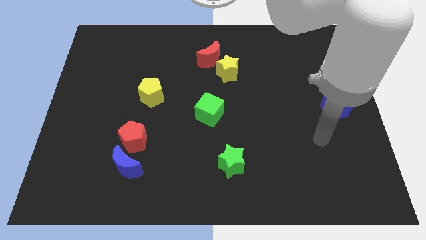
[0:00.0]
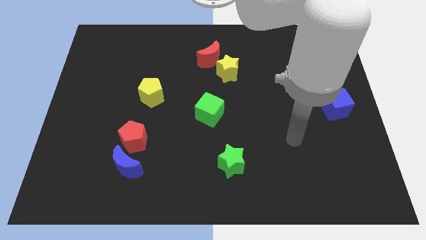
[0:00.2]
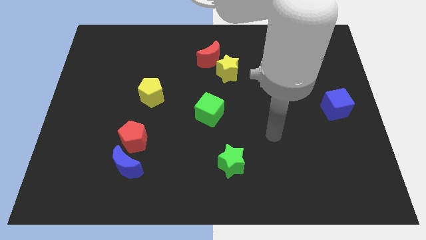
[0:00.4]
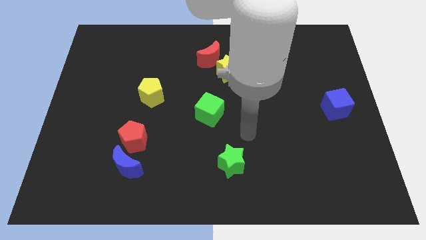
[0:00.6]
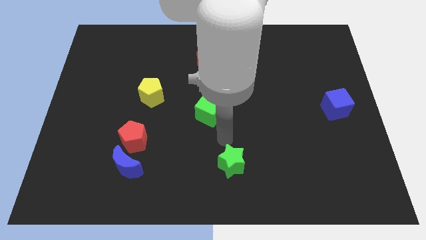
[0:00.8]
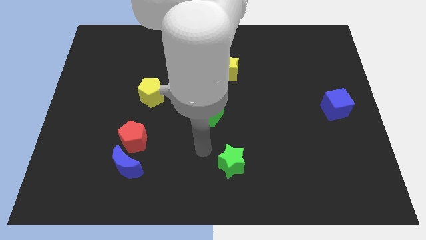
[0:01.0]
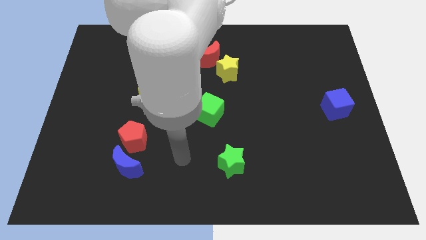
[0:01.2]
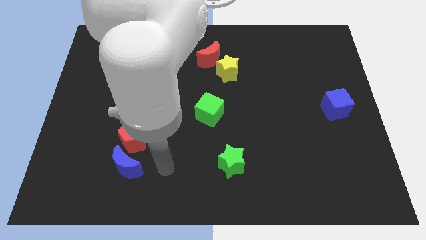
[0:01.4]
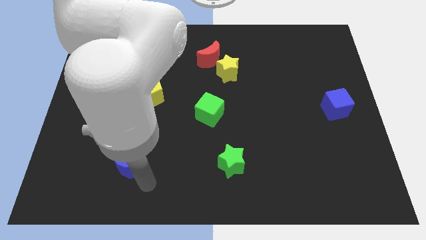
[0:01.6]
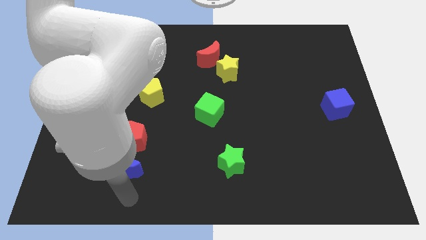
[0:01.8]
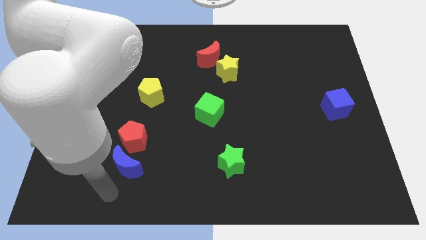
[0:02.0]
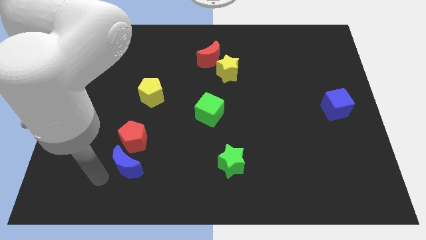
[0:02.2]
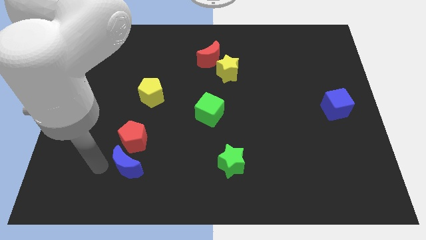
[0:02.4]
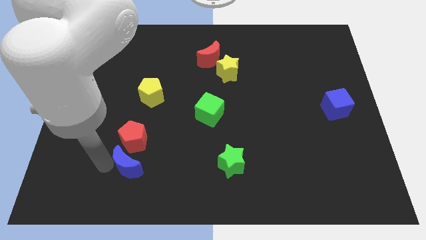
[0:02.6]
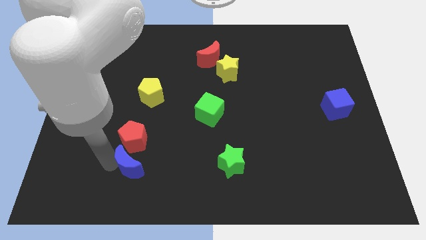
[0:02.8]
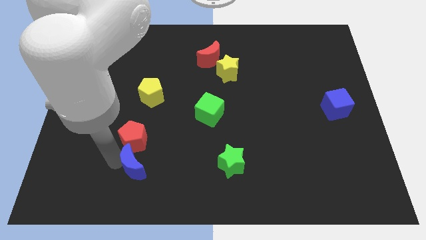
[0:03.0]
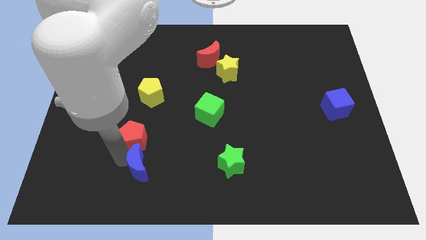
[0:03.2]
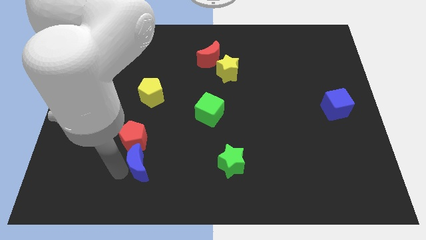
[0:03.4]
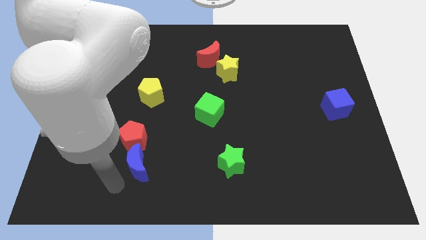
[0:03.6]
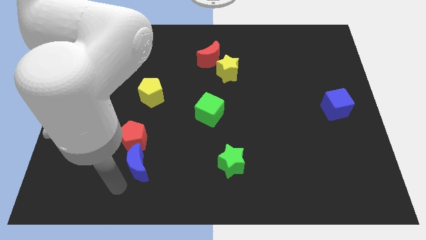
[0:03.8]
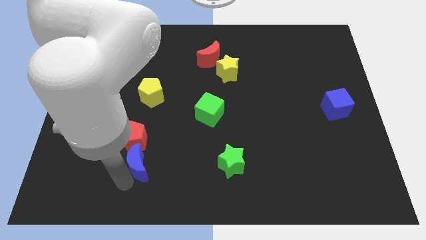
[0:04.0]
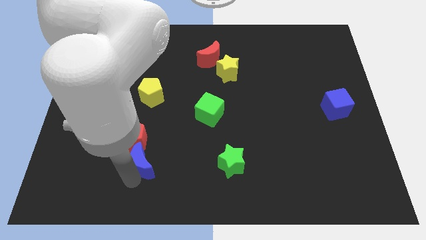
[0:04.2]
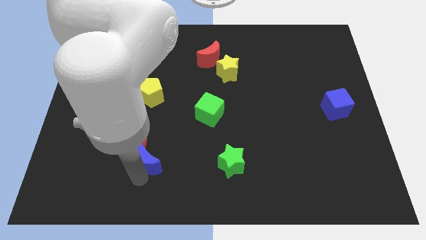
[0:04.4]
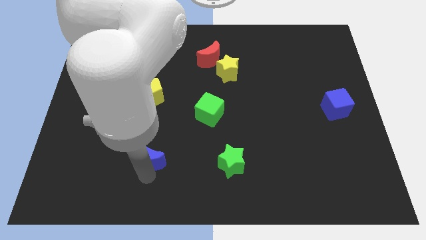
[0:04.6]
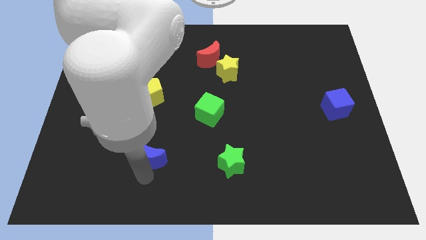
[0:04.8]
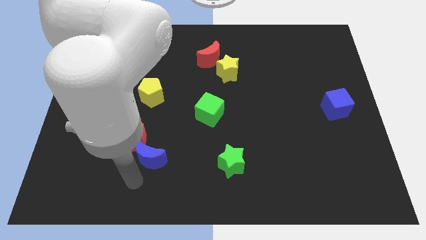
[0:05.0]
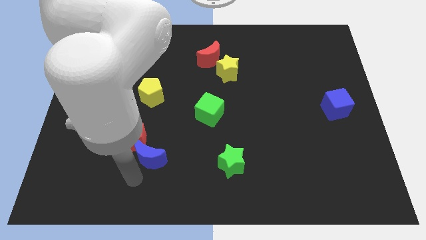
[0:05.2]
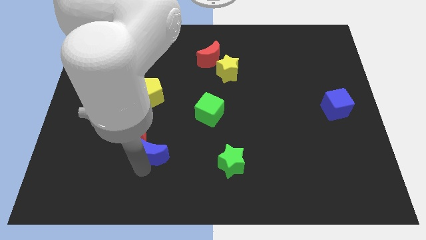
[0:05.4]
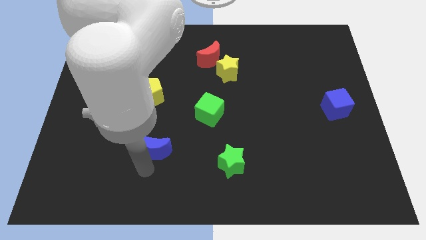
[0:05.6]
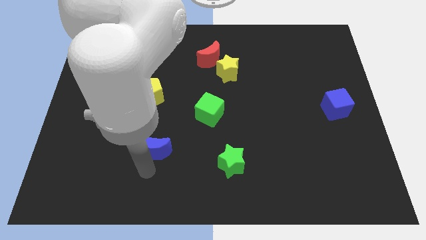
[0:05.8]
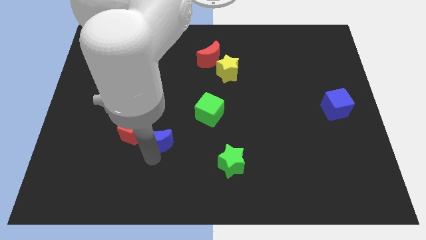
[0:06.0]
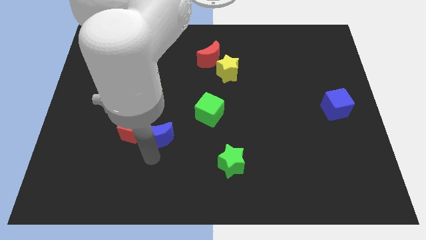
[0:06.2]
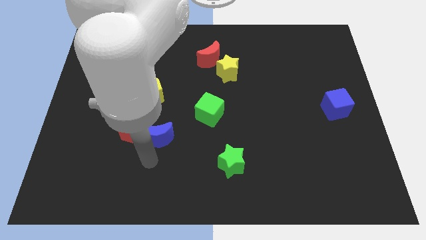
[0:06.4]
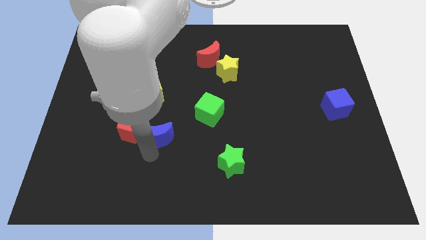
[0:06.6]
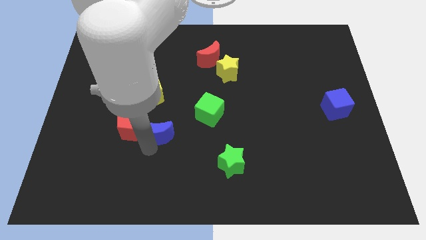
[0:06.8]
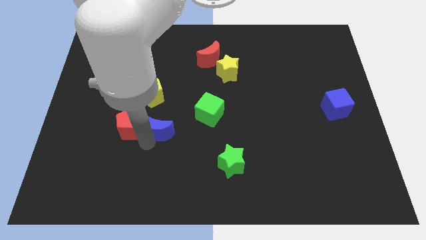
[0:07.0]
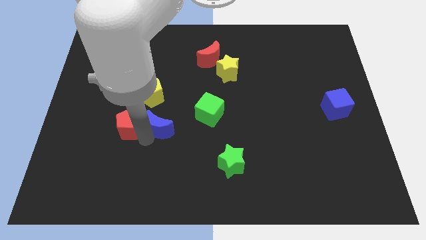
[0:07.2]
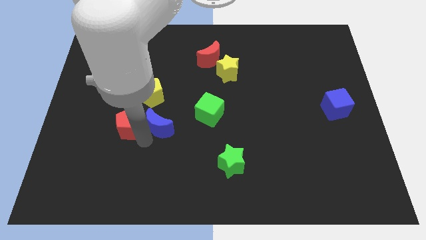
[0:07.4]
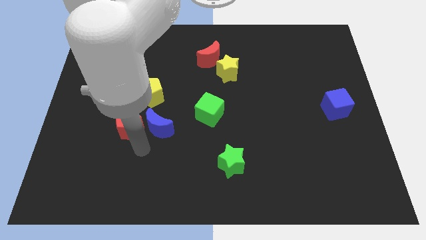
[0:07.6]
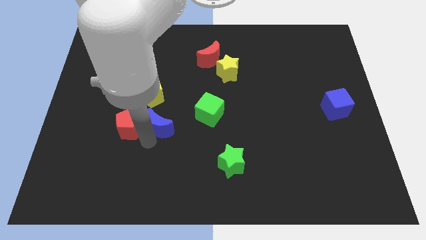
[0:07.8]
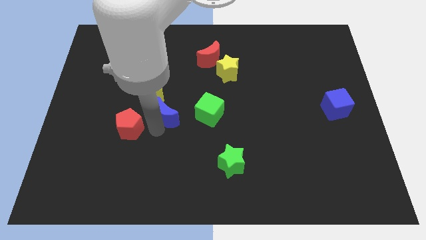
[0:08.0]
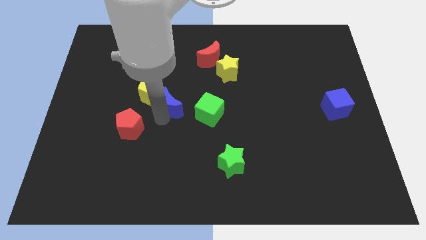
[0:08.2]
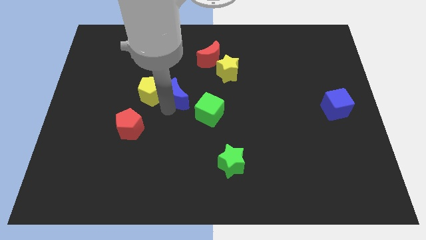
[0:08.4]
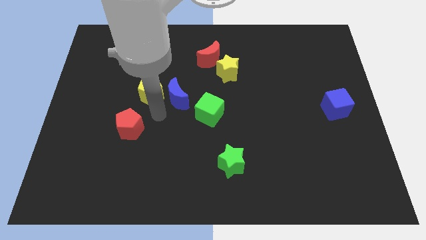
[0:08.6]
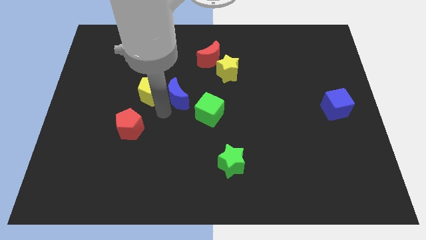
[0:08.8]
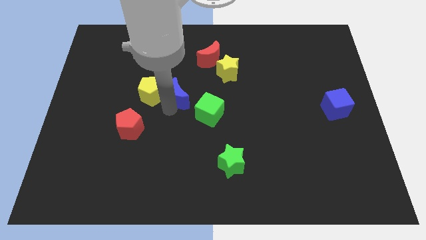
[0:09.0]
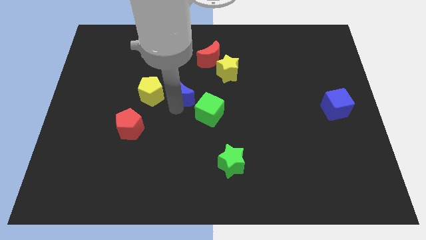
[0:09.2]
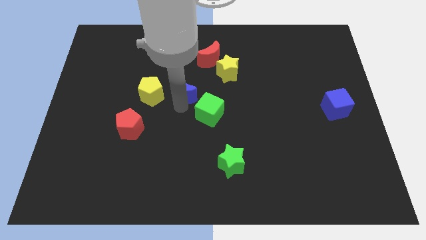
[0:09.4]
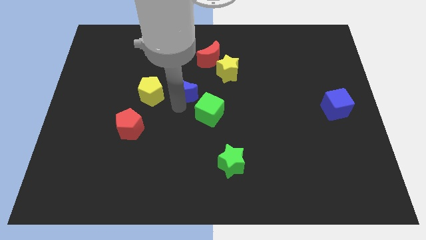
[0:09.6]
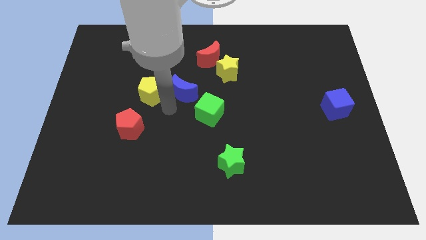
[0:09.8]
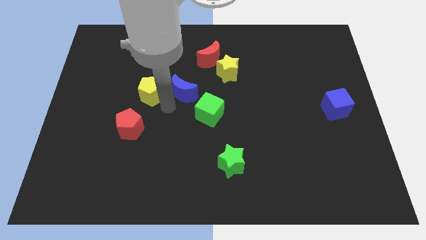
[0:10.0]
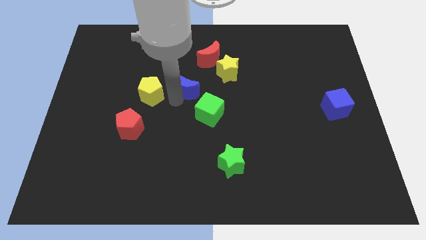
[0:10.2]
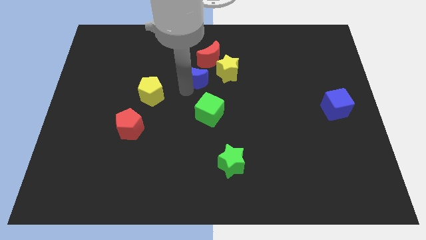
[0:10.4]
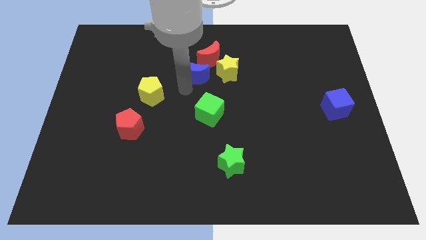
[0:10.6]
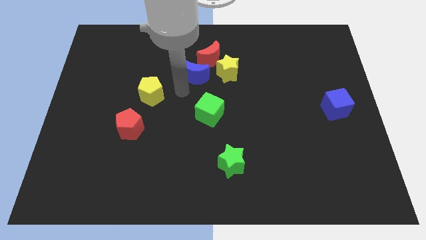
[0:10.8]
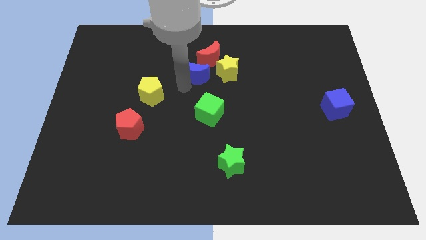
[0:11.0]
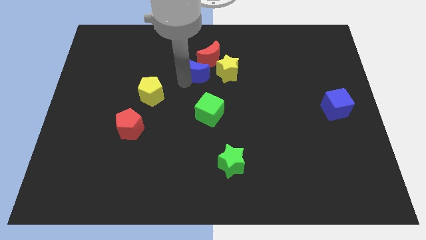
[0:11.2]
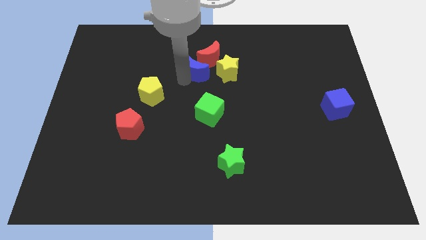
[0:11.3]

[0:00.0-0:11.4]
slide the blue moon to the red moon

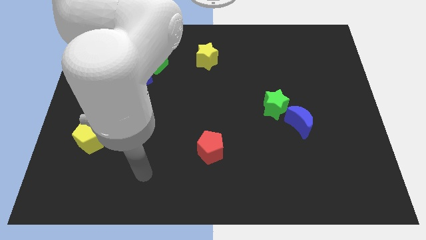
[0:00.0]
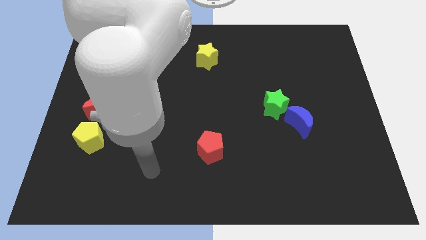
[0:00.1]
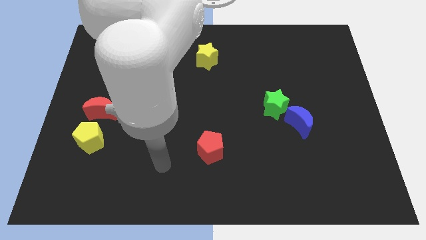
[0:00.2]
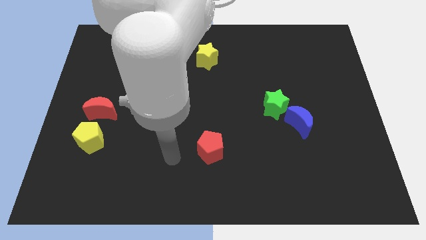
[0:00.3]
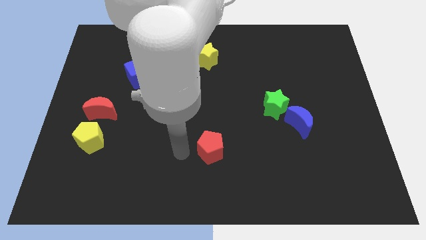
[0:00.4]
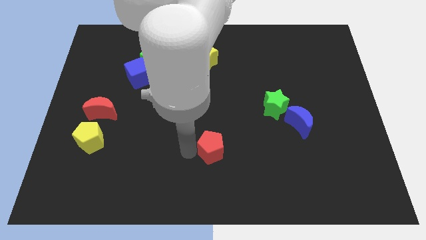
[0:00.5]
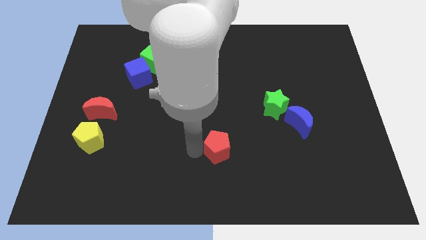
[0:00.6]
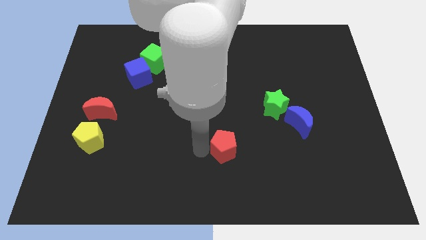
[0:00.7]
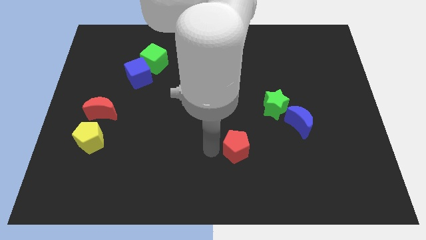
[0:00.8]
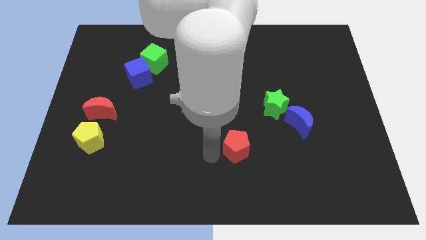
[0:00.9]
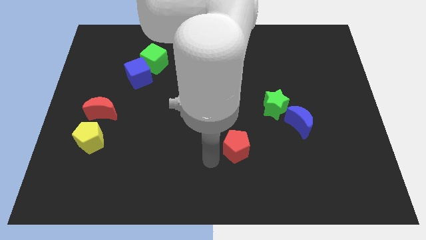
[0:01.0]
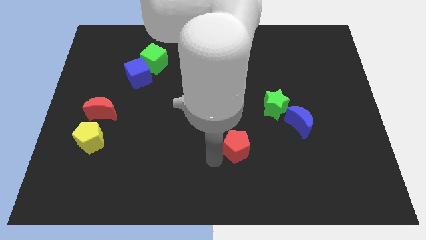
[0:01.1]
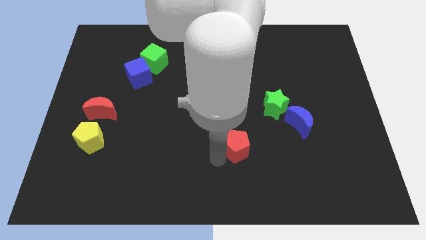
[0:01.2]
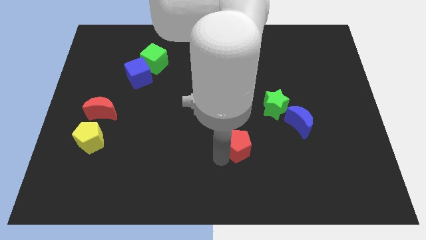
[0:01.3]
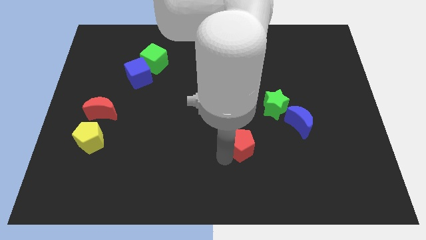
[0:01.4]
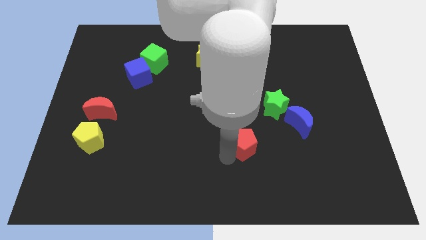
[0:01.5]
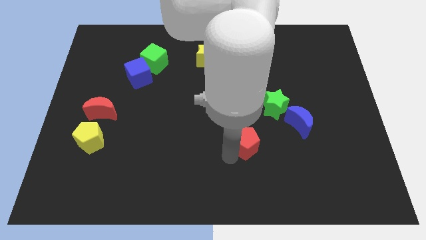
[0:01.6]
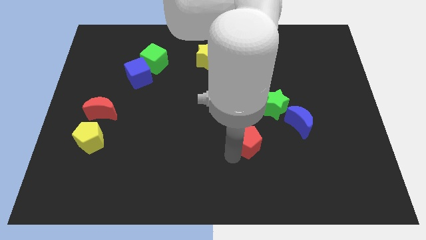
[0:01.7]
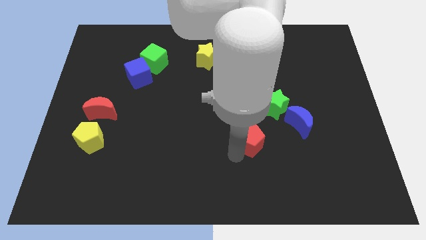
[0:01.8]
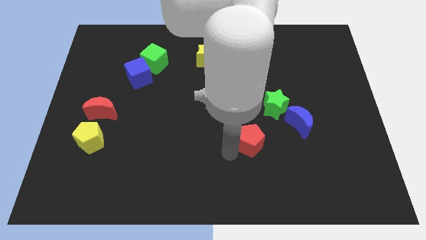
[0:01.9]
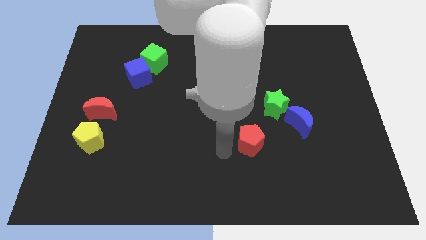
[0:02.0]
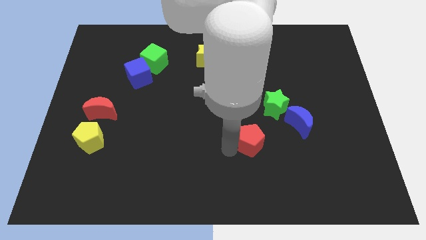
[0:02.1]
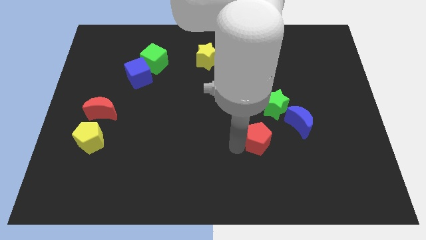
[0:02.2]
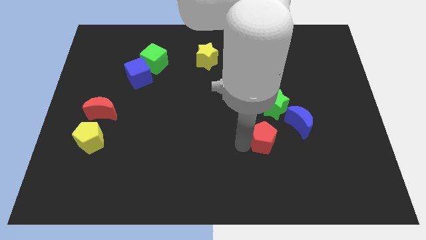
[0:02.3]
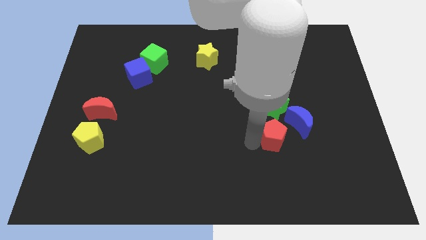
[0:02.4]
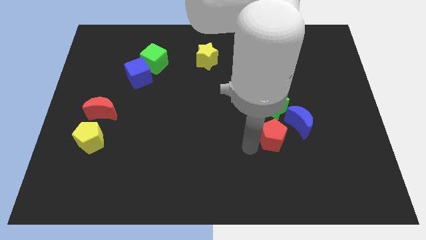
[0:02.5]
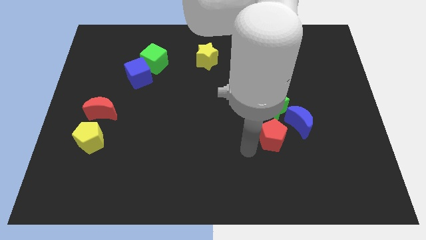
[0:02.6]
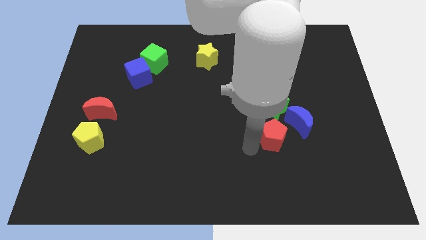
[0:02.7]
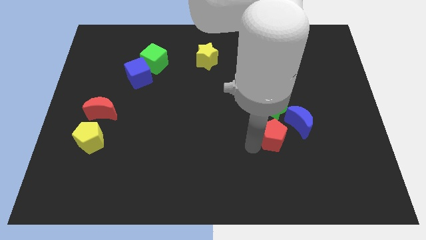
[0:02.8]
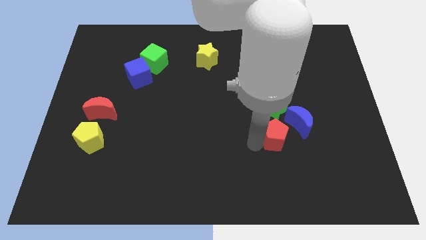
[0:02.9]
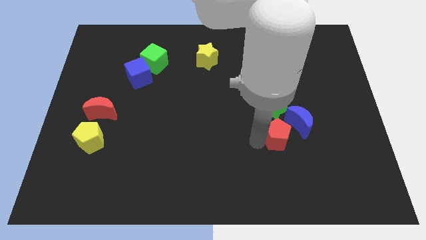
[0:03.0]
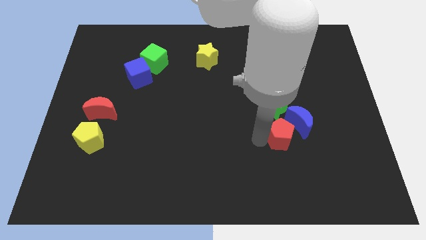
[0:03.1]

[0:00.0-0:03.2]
push the red pentagon next to the blue moon
